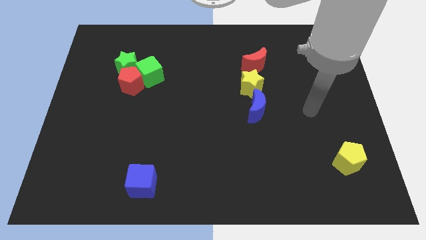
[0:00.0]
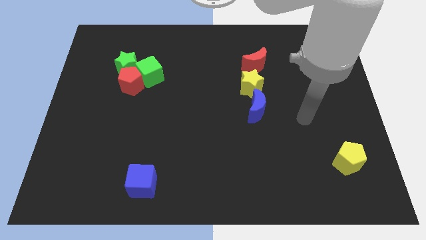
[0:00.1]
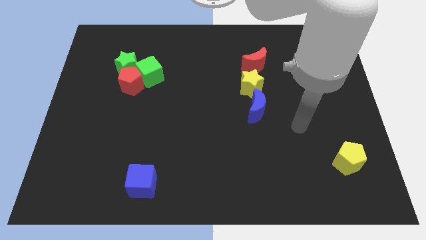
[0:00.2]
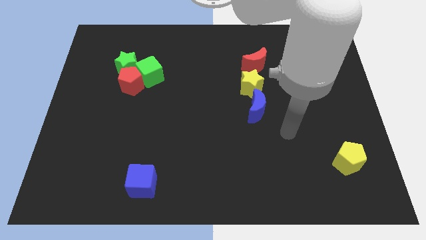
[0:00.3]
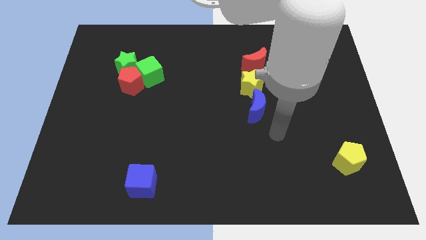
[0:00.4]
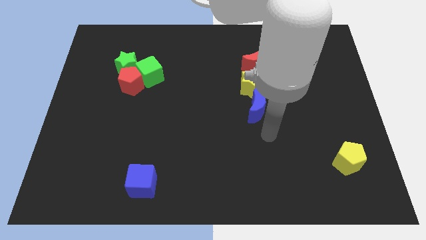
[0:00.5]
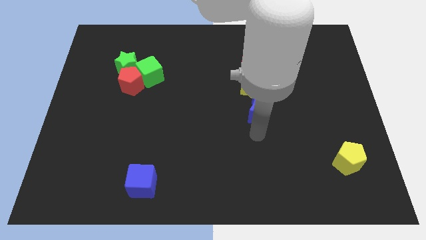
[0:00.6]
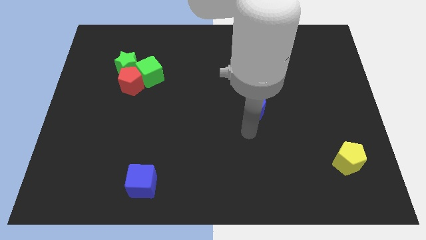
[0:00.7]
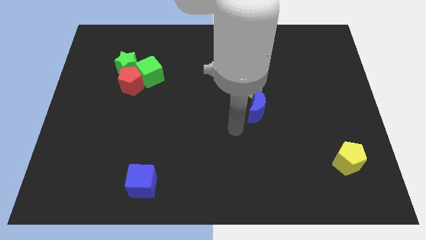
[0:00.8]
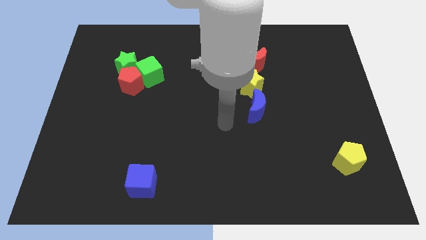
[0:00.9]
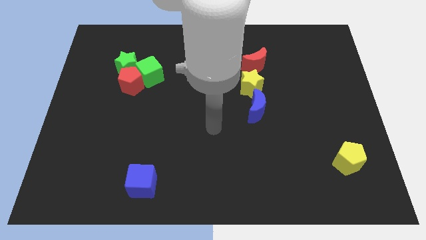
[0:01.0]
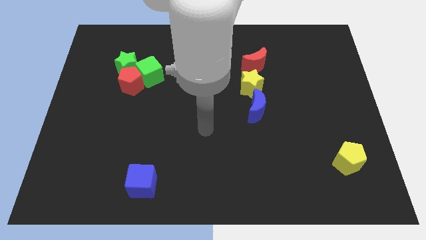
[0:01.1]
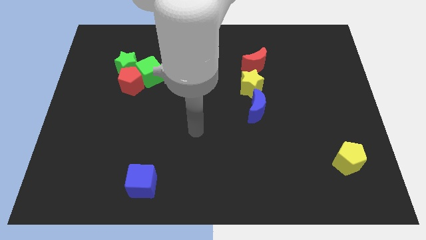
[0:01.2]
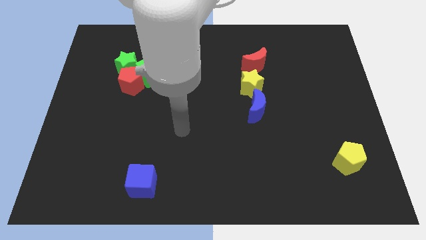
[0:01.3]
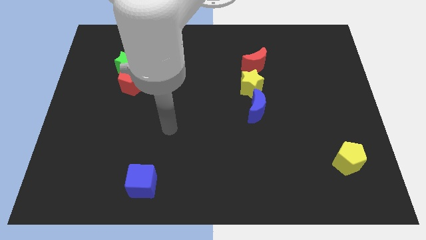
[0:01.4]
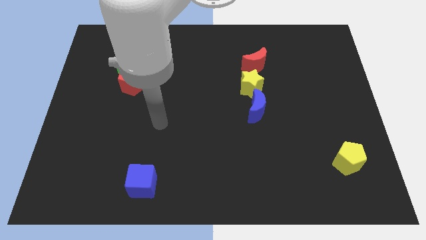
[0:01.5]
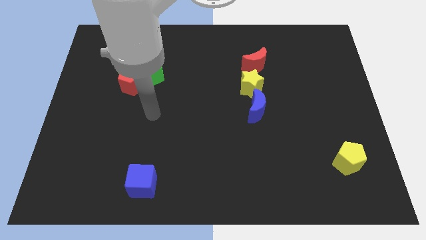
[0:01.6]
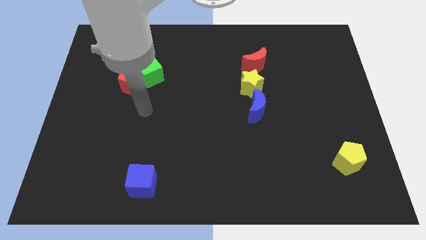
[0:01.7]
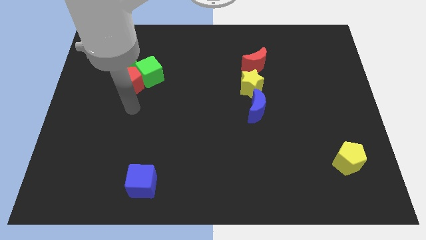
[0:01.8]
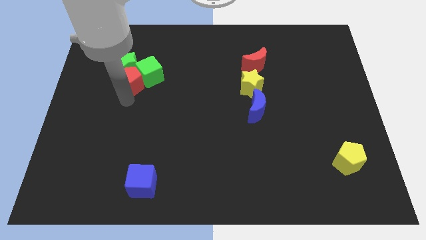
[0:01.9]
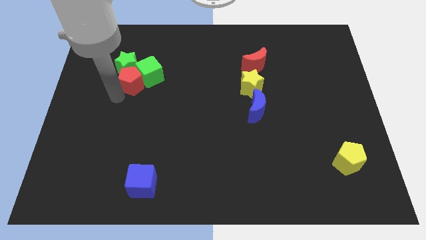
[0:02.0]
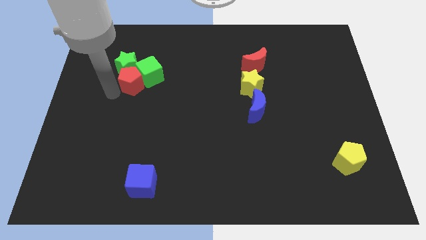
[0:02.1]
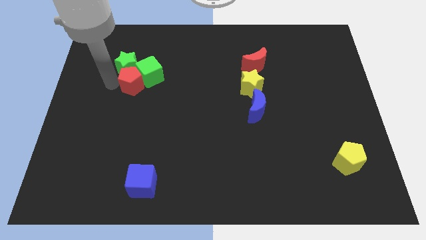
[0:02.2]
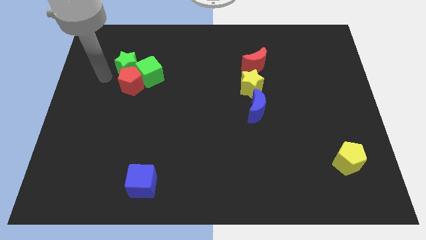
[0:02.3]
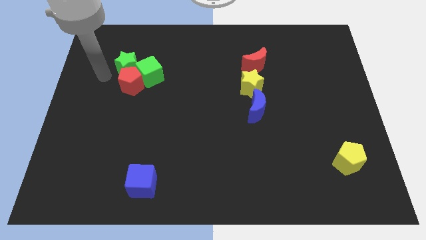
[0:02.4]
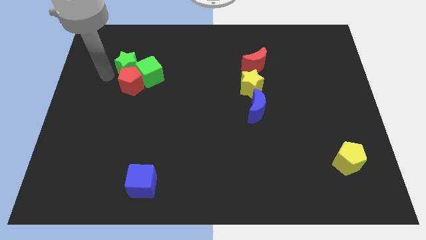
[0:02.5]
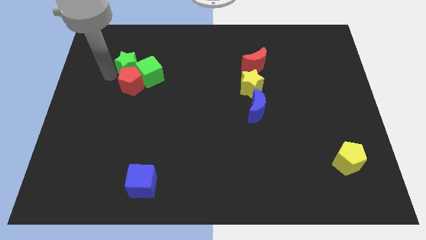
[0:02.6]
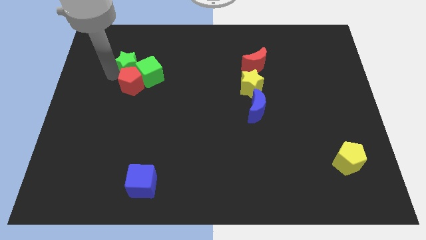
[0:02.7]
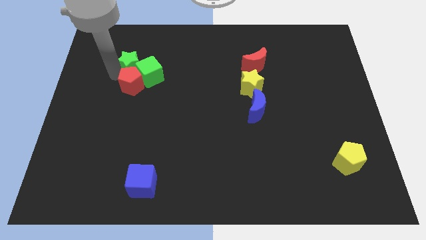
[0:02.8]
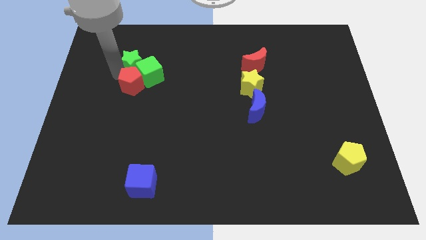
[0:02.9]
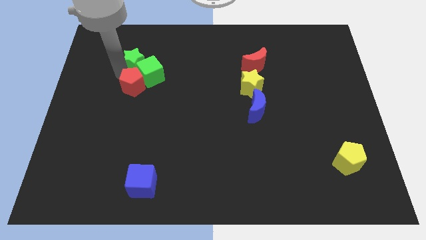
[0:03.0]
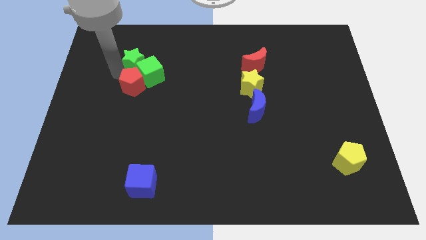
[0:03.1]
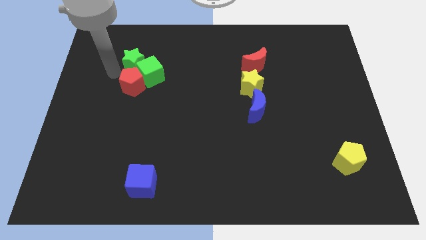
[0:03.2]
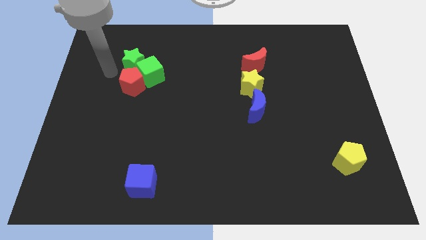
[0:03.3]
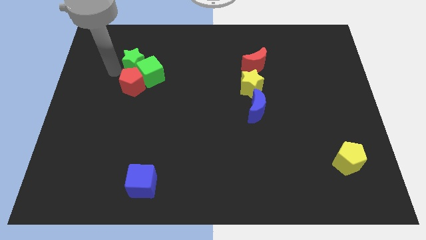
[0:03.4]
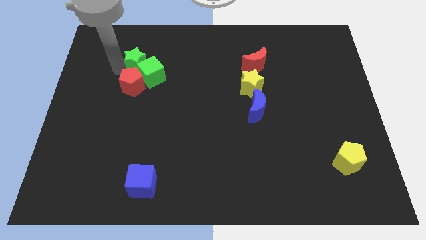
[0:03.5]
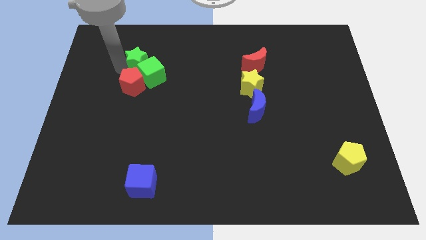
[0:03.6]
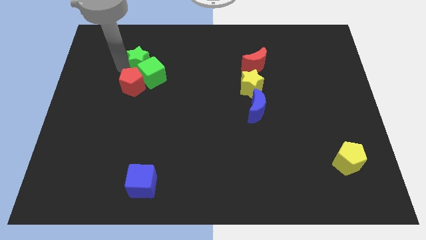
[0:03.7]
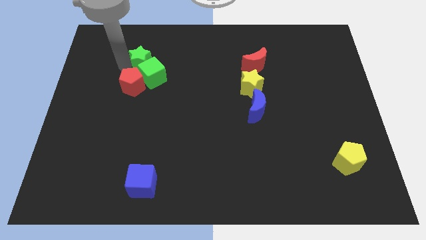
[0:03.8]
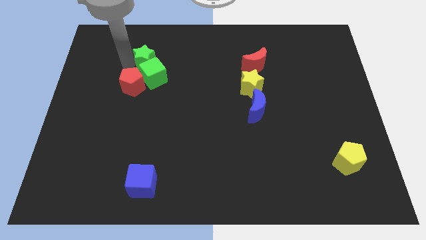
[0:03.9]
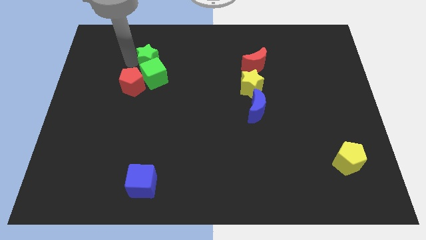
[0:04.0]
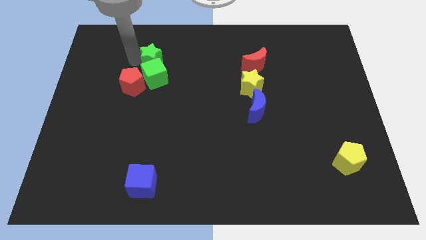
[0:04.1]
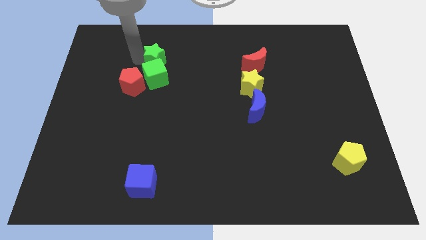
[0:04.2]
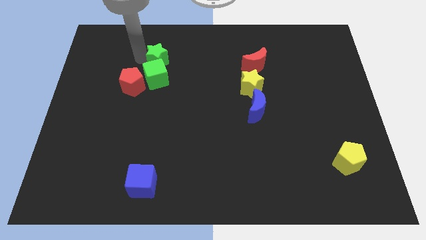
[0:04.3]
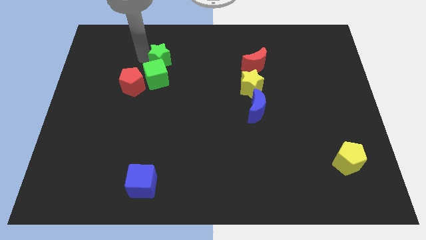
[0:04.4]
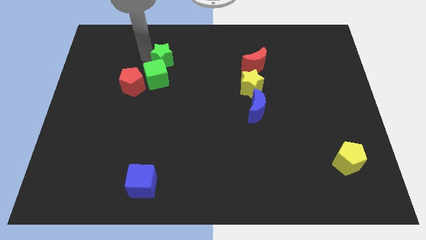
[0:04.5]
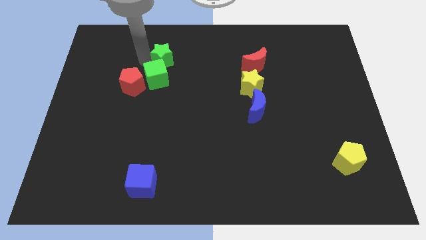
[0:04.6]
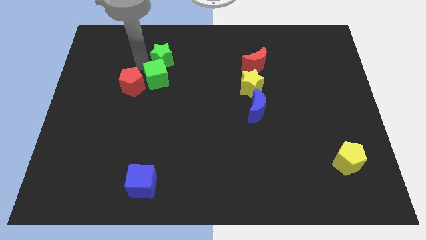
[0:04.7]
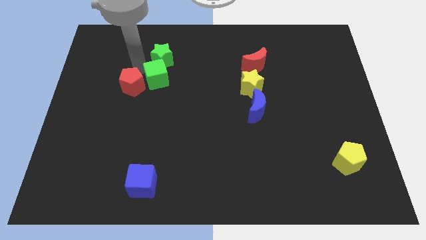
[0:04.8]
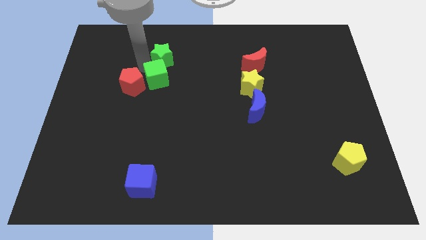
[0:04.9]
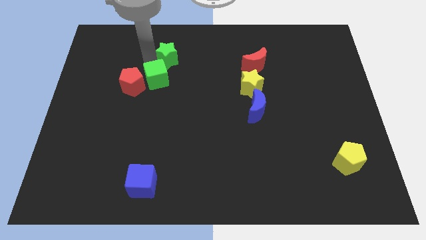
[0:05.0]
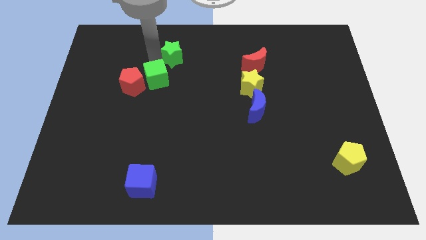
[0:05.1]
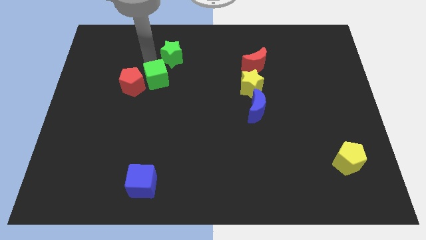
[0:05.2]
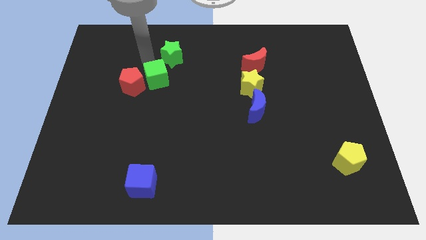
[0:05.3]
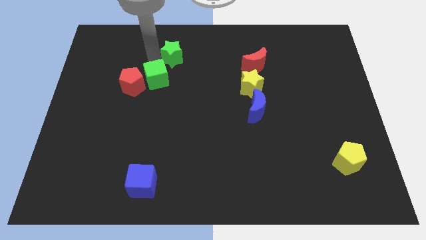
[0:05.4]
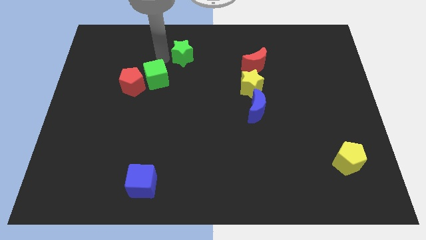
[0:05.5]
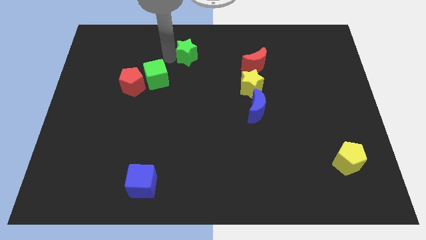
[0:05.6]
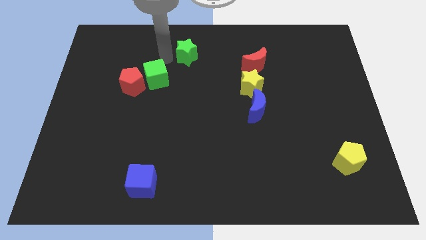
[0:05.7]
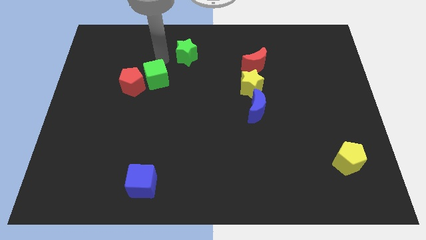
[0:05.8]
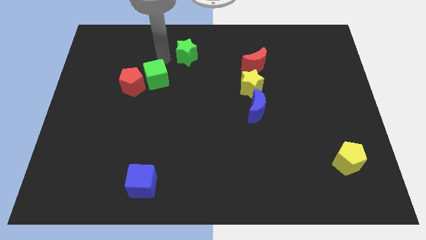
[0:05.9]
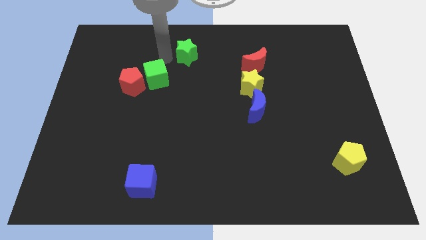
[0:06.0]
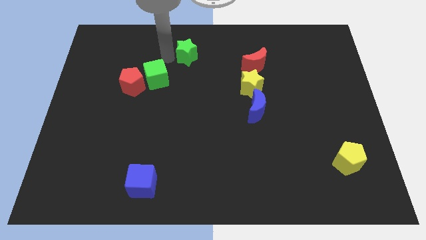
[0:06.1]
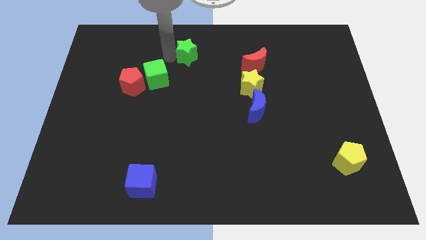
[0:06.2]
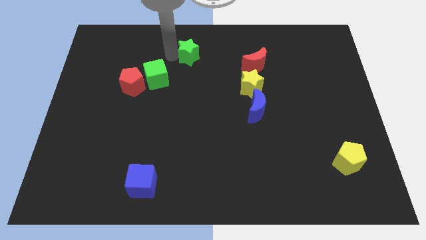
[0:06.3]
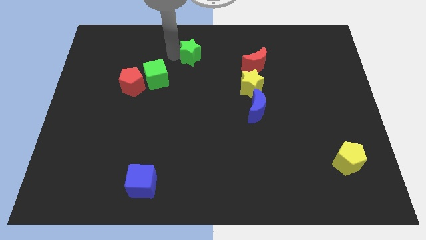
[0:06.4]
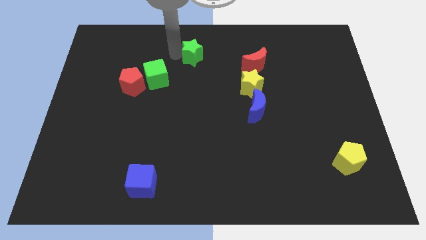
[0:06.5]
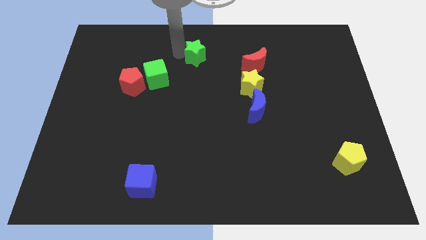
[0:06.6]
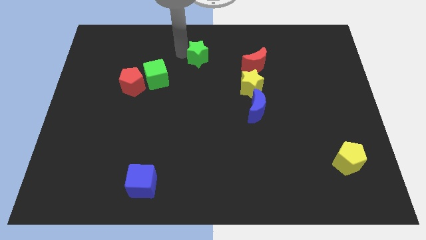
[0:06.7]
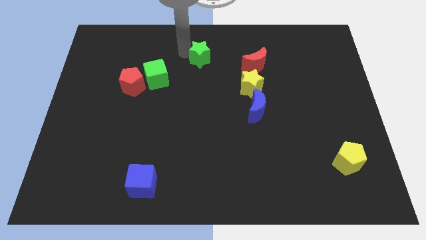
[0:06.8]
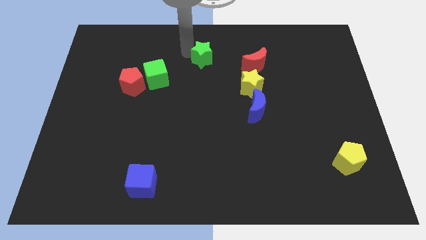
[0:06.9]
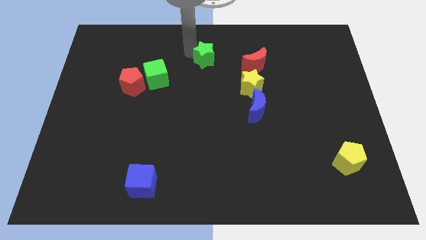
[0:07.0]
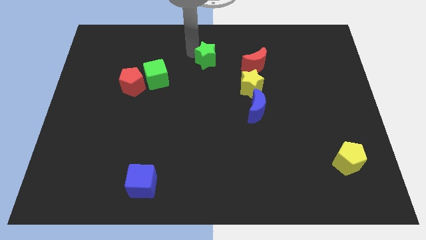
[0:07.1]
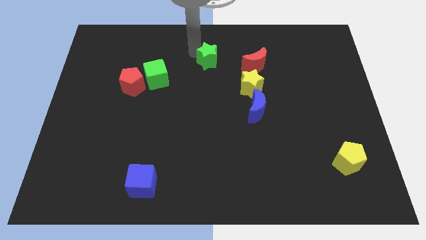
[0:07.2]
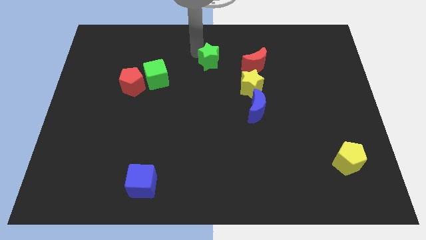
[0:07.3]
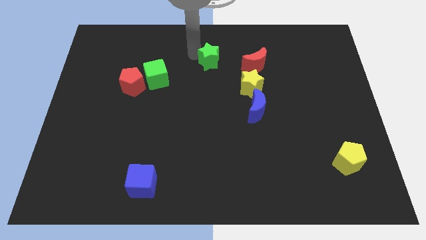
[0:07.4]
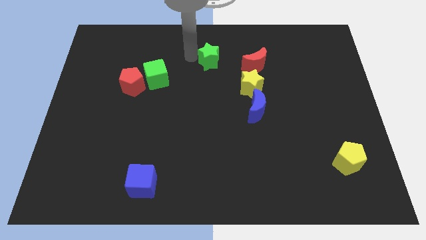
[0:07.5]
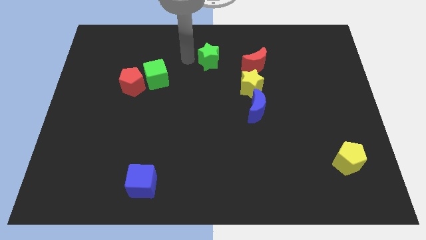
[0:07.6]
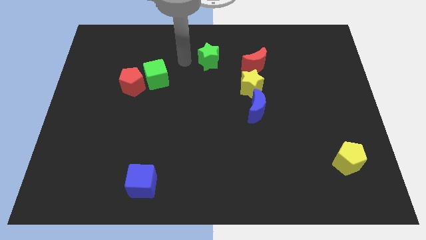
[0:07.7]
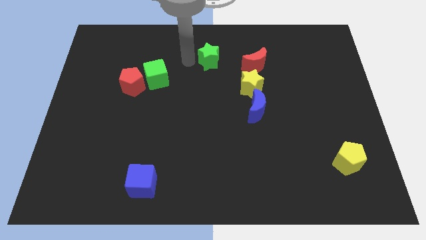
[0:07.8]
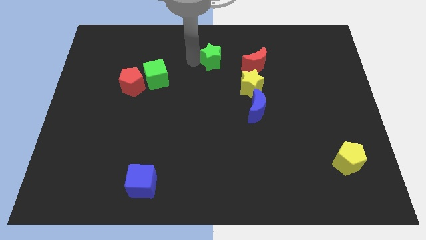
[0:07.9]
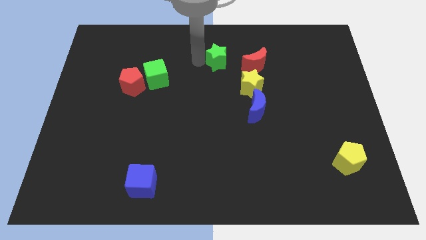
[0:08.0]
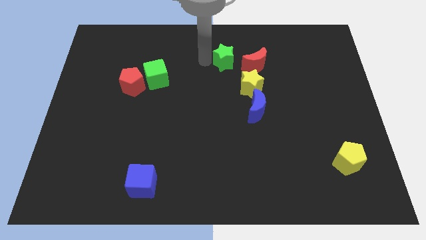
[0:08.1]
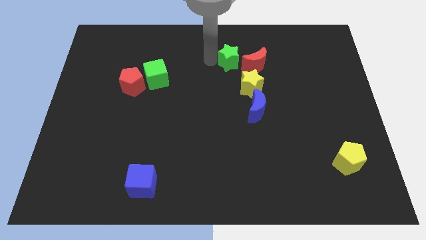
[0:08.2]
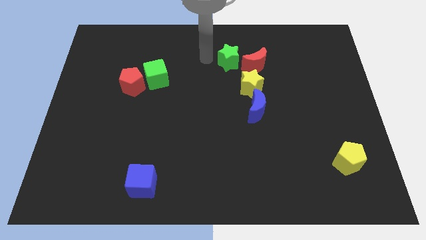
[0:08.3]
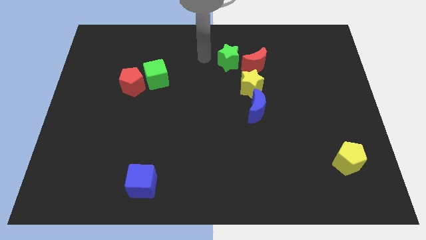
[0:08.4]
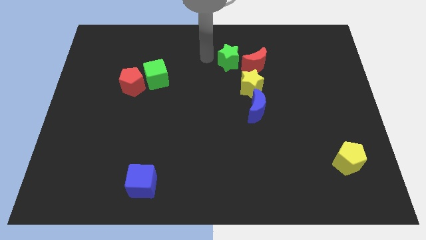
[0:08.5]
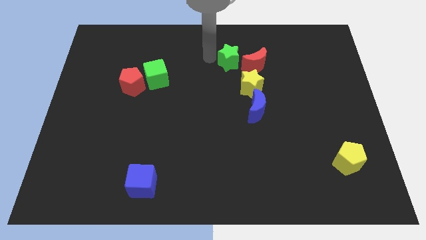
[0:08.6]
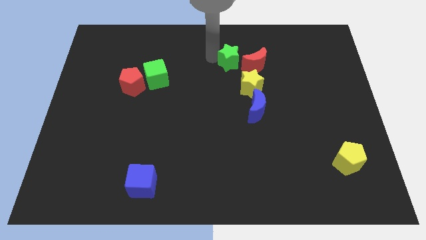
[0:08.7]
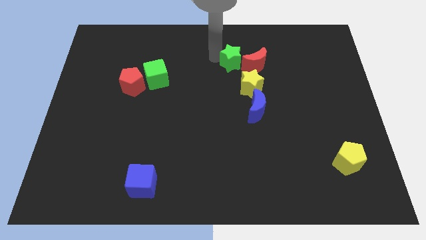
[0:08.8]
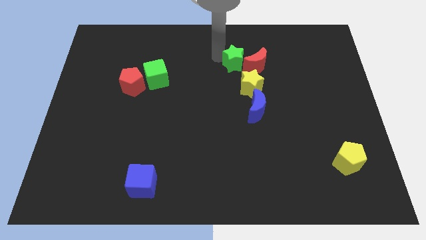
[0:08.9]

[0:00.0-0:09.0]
slide the green star towards the red moon
